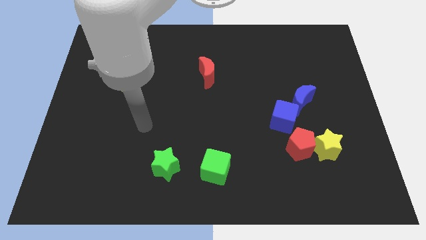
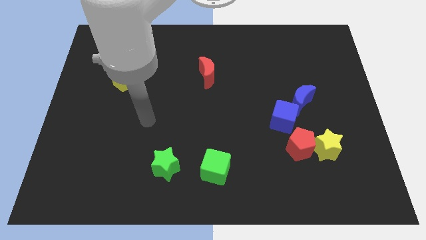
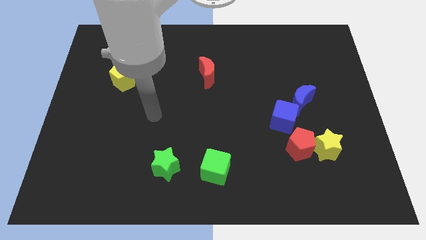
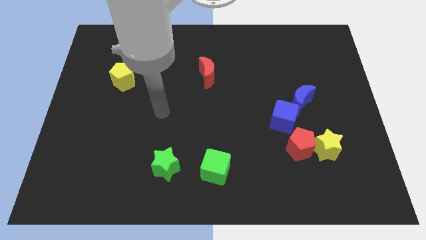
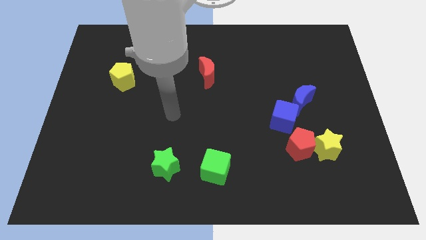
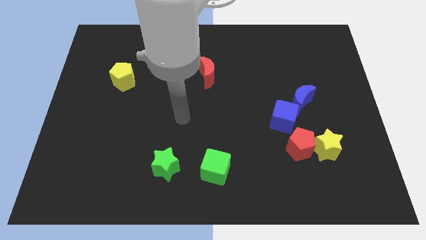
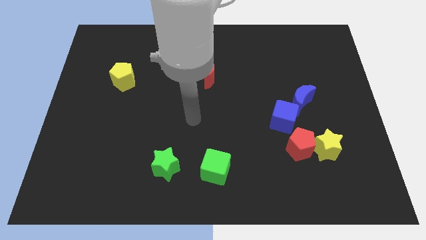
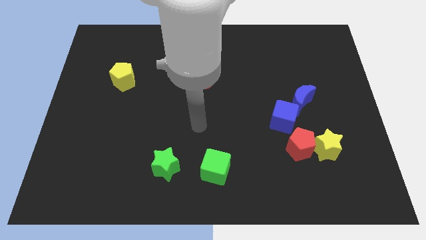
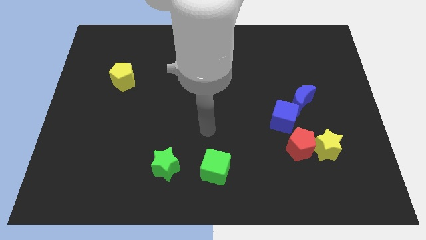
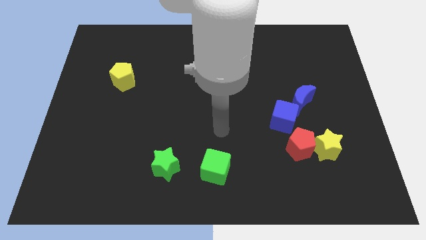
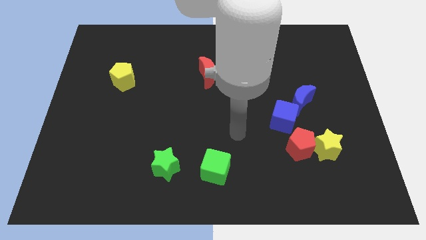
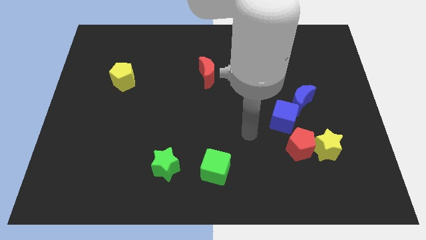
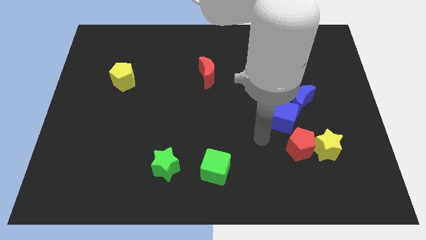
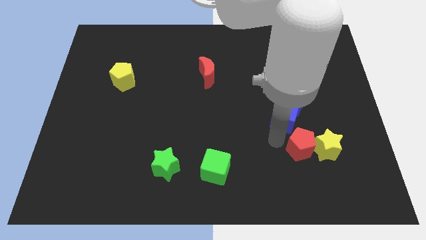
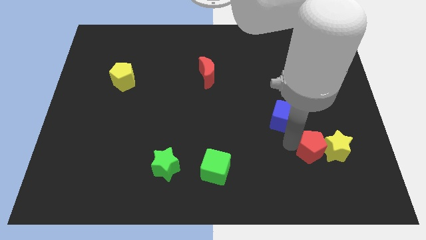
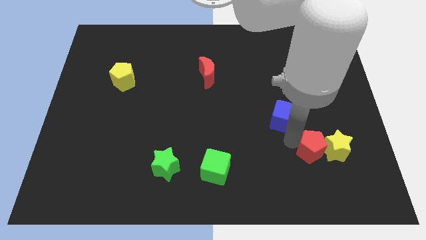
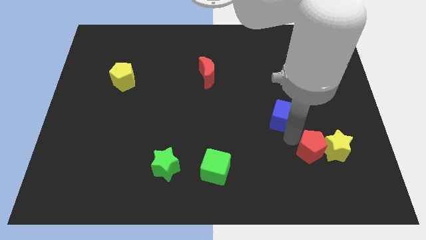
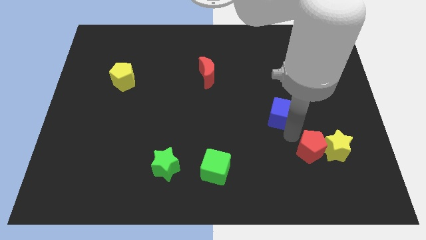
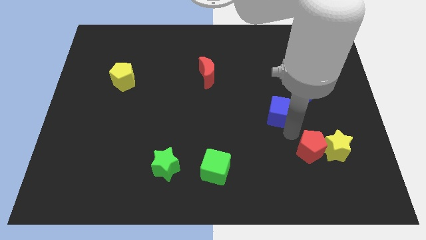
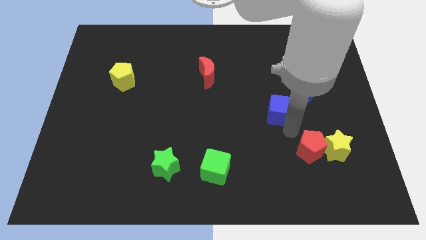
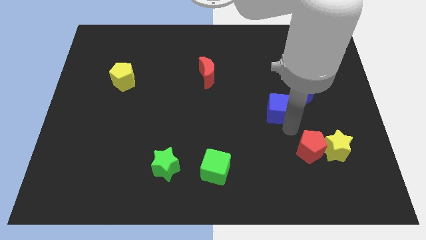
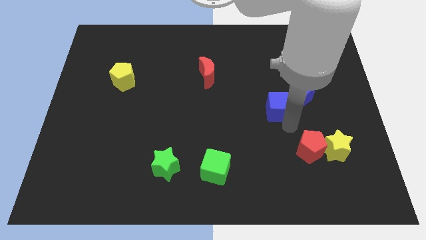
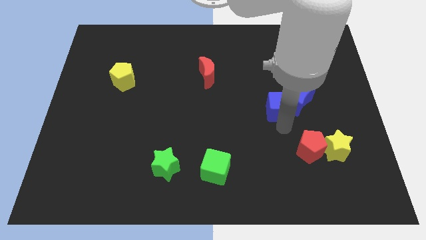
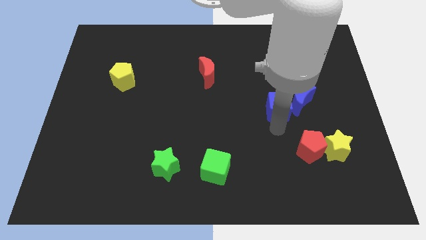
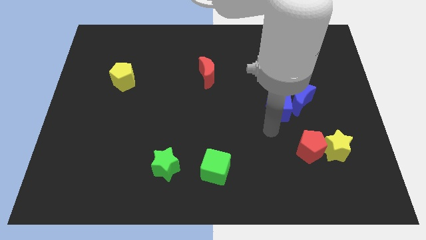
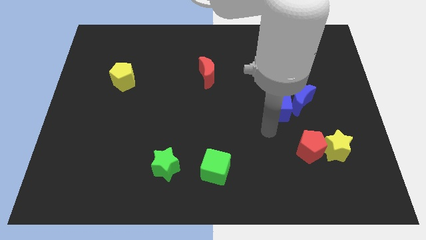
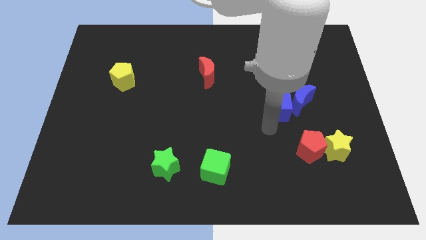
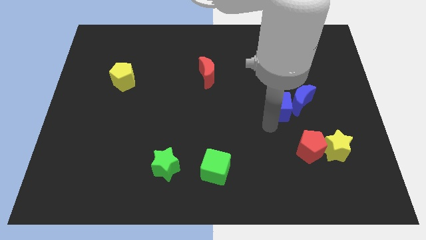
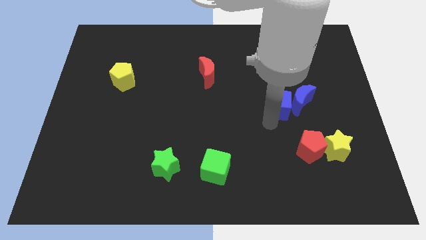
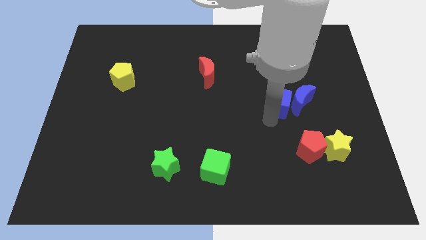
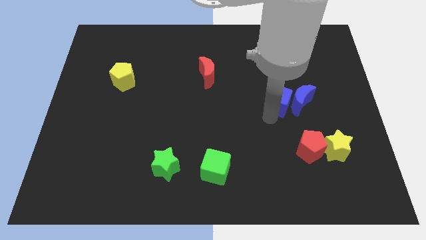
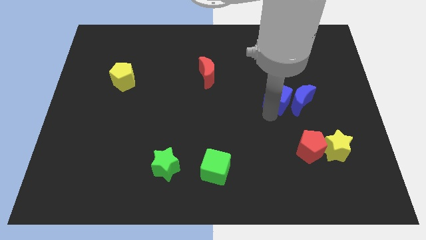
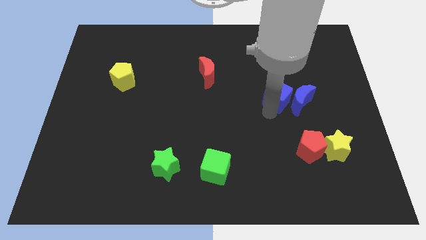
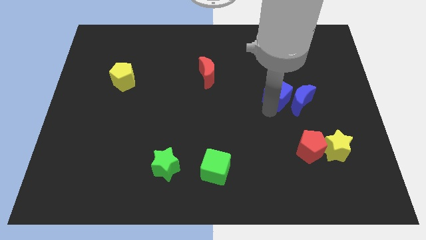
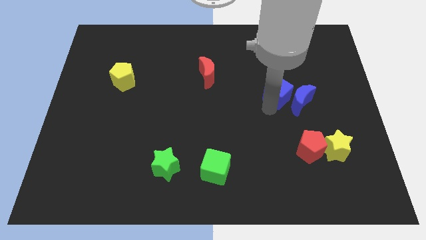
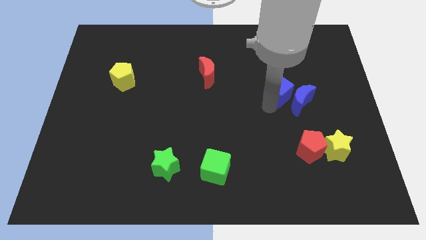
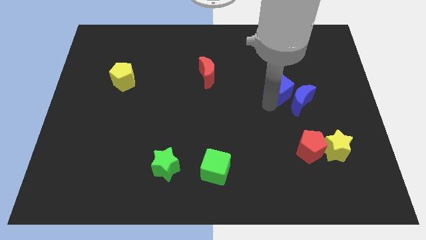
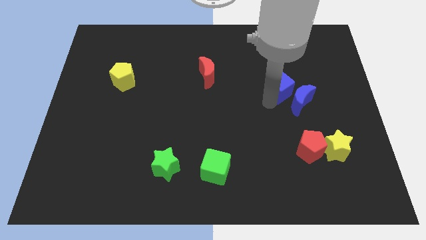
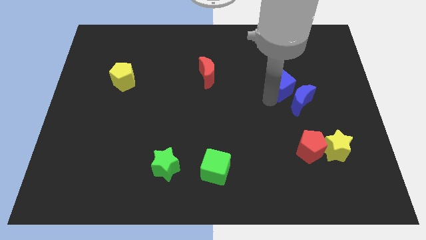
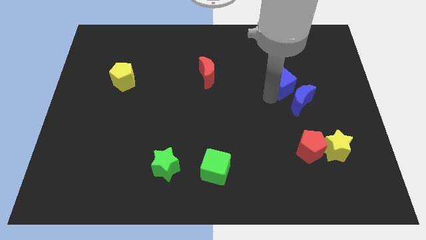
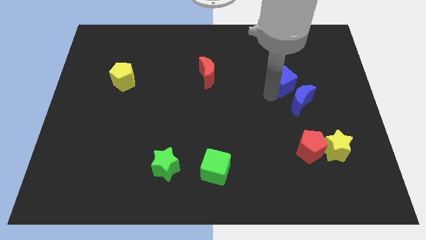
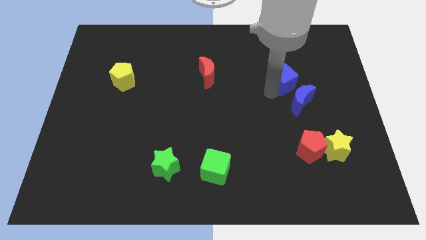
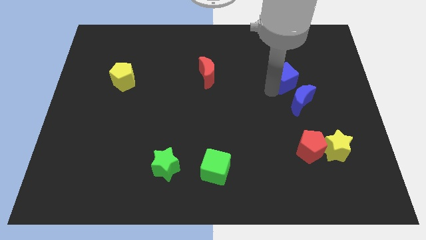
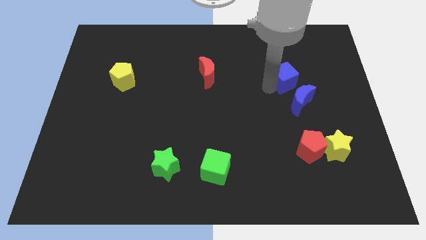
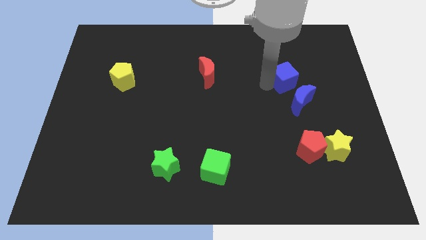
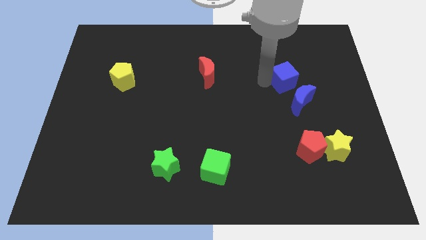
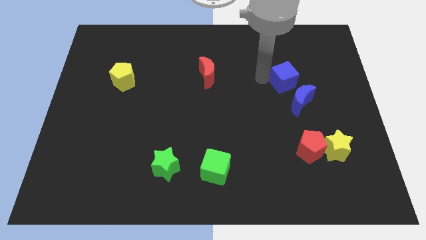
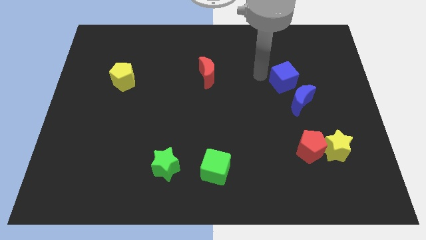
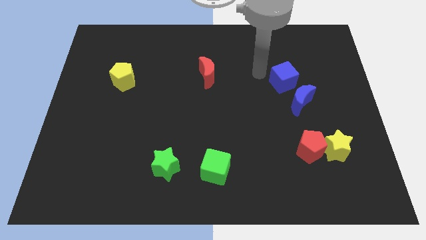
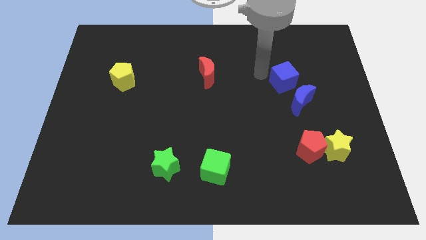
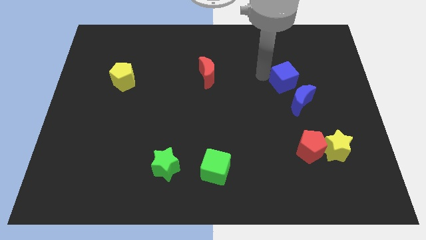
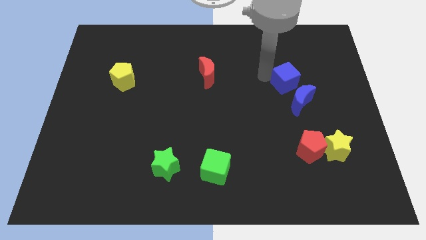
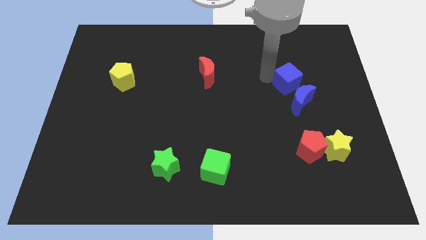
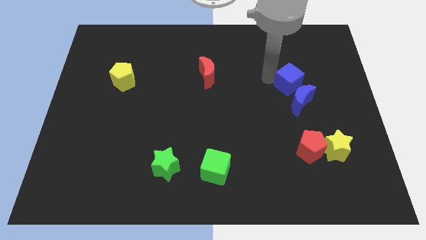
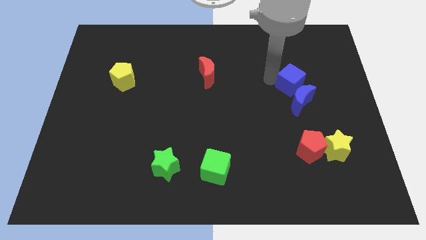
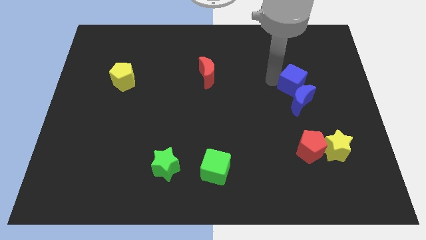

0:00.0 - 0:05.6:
put the blue cube diagonally up and to the right of the blue moon

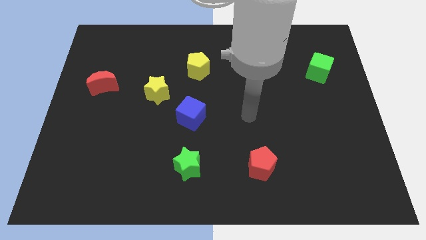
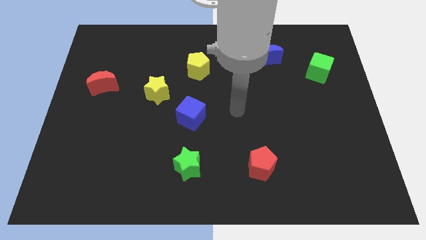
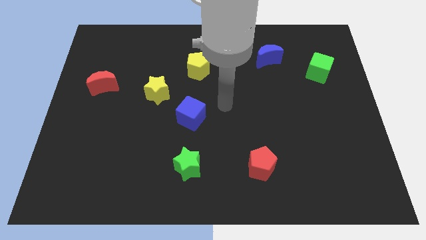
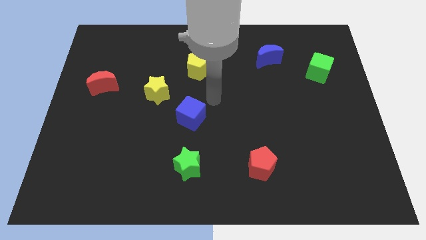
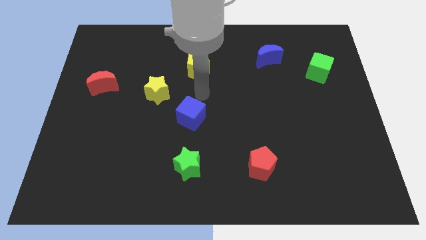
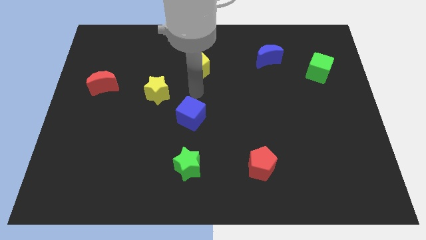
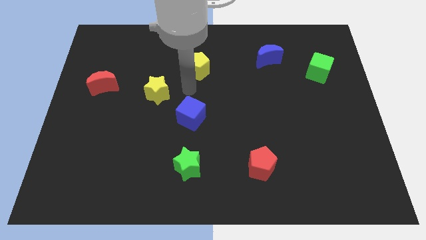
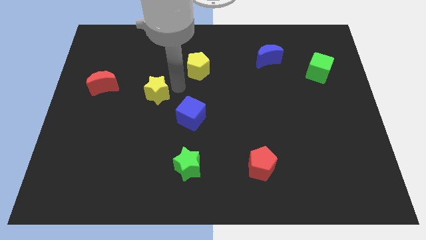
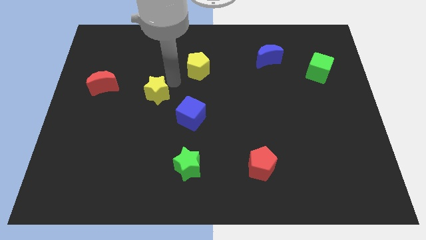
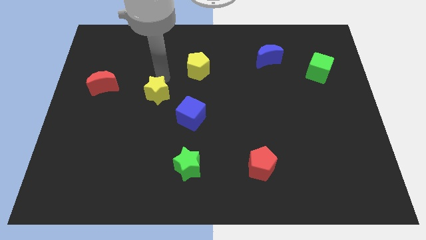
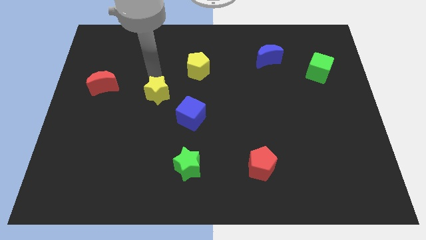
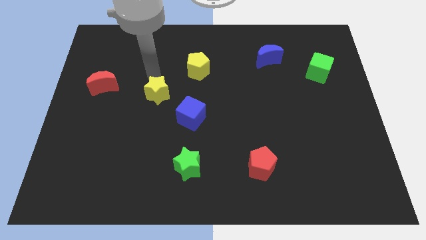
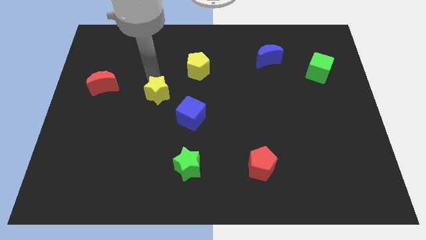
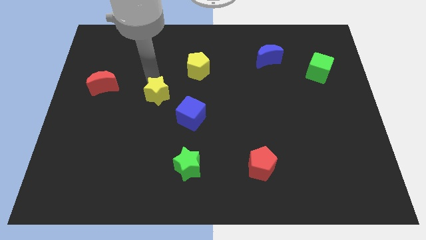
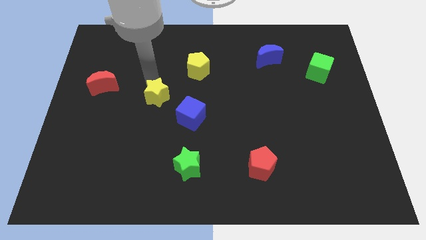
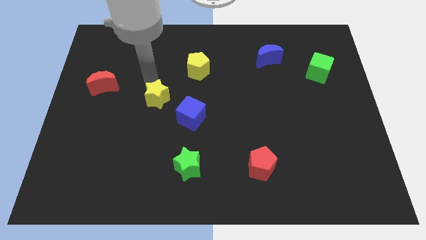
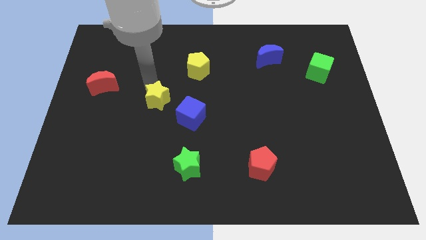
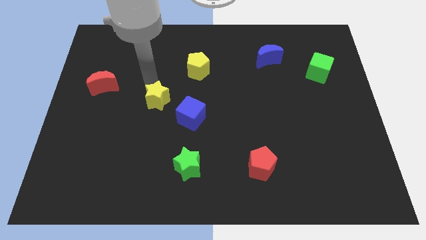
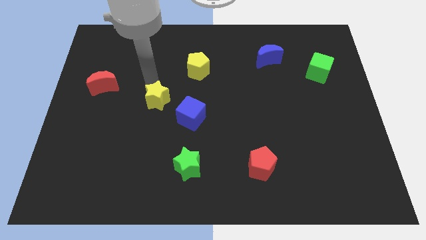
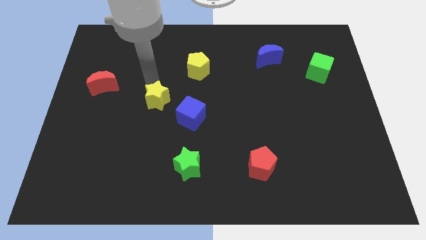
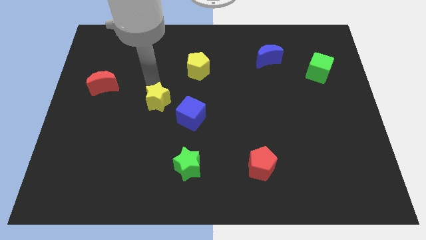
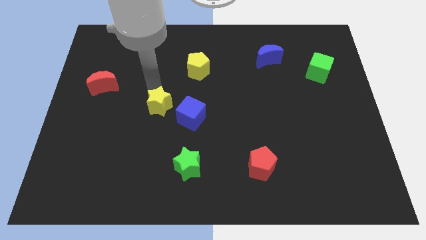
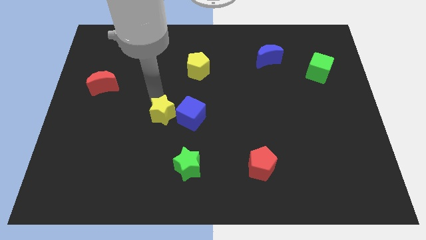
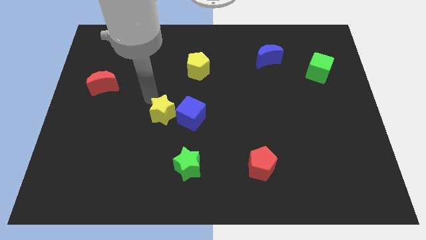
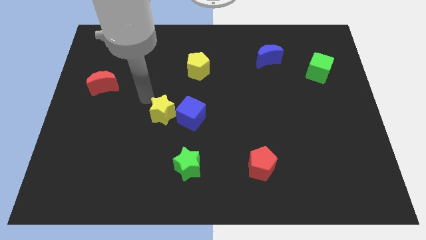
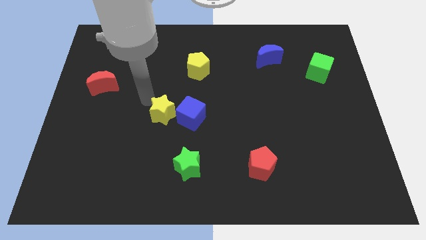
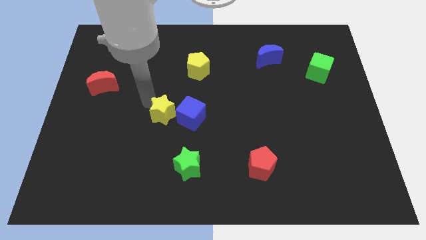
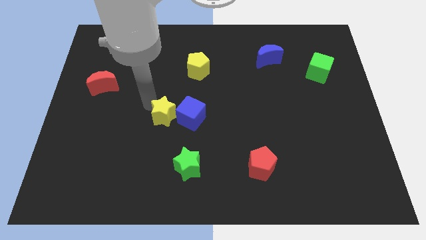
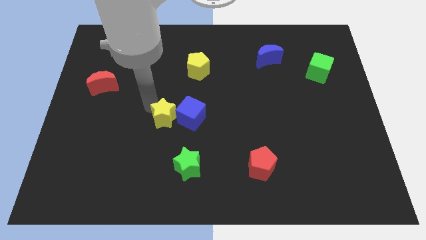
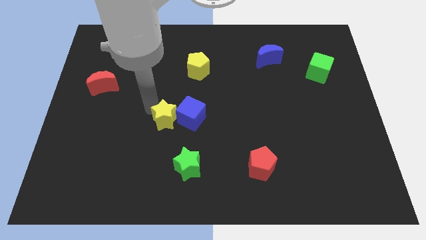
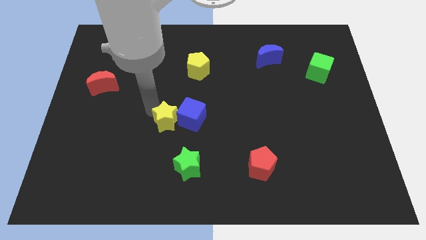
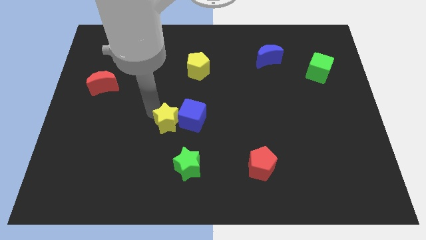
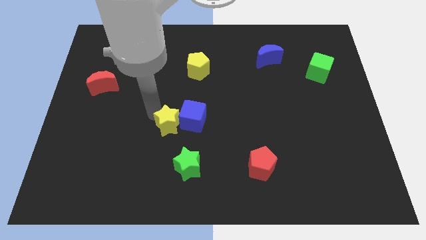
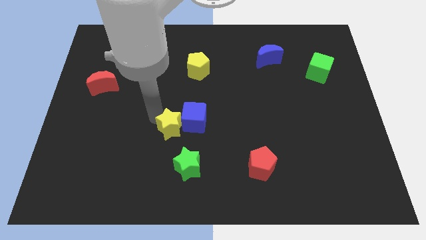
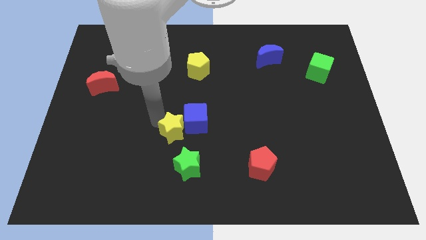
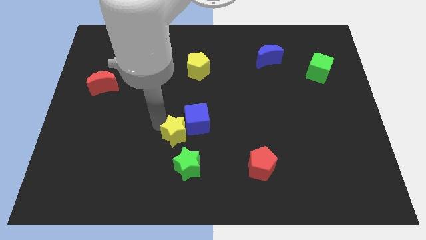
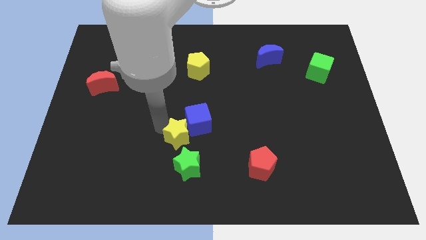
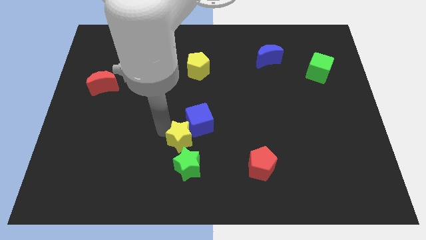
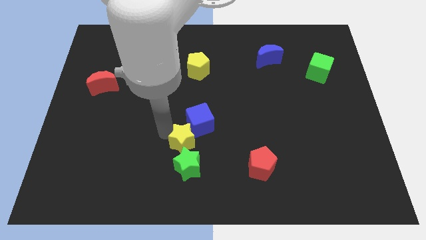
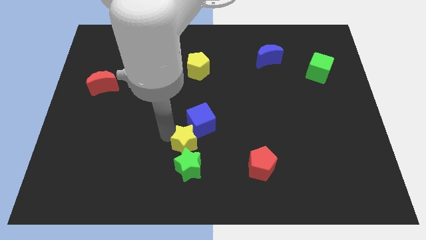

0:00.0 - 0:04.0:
put the yellow star to the top right of the green star
